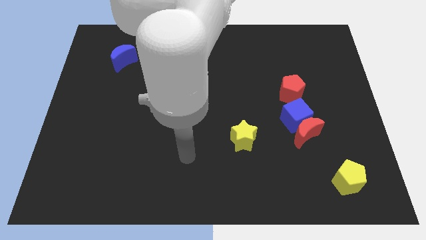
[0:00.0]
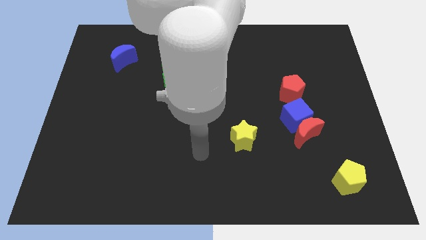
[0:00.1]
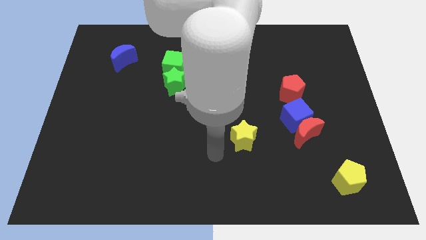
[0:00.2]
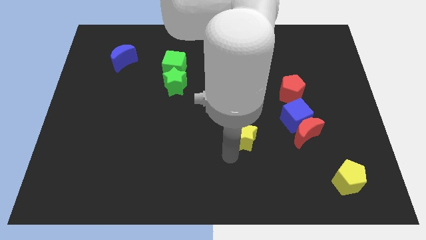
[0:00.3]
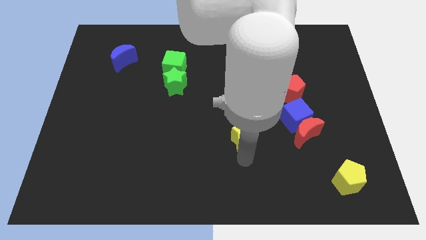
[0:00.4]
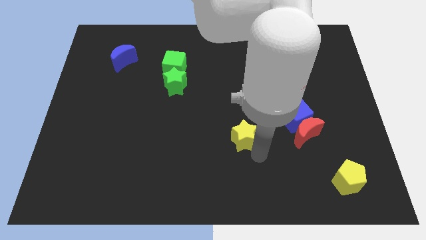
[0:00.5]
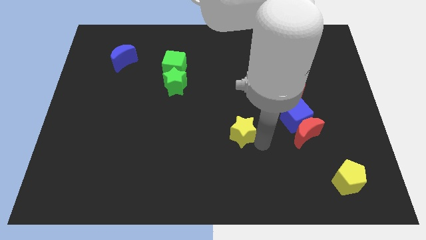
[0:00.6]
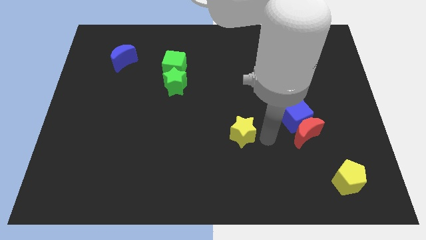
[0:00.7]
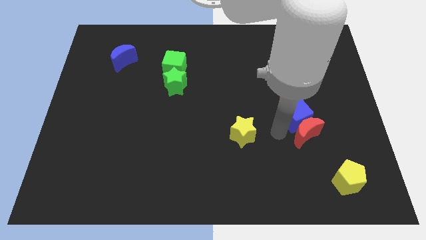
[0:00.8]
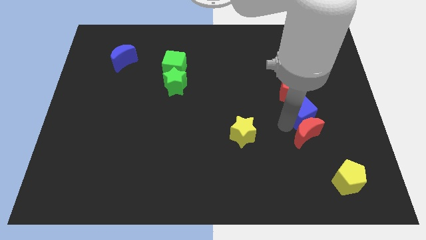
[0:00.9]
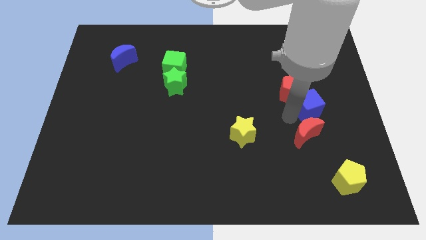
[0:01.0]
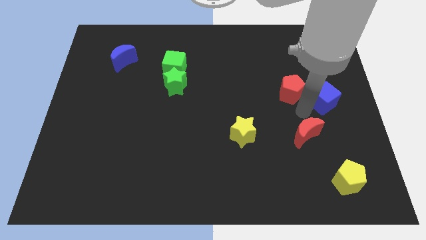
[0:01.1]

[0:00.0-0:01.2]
pull the red moon apart from the blue cube

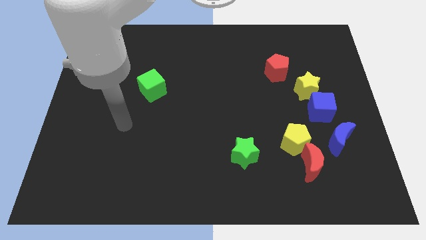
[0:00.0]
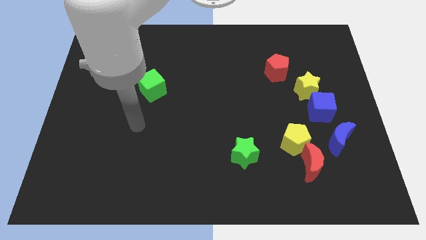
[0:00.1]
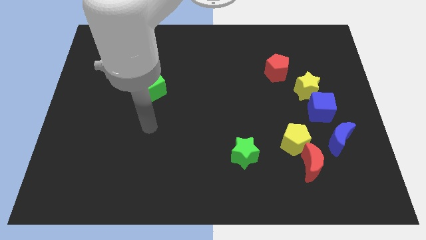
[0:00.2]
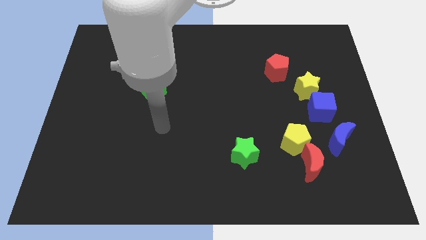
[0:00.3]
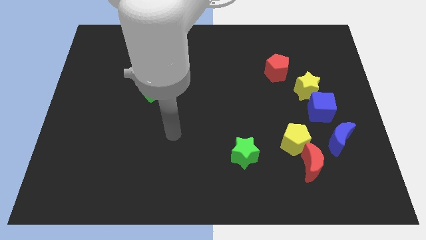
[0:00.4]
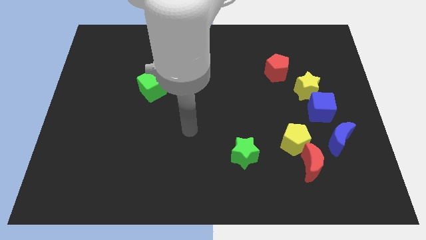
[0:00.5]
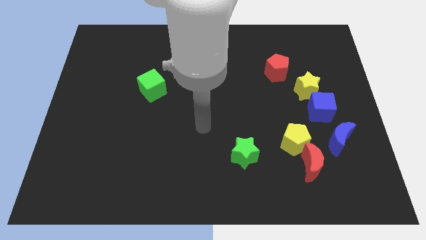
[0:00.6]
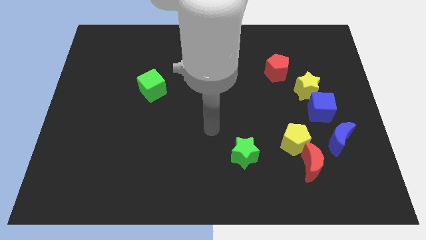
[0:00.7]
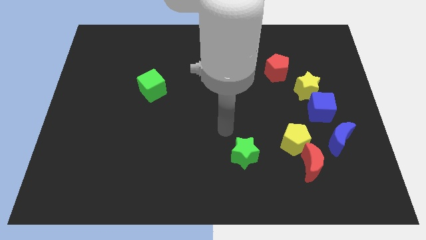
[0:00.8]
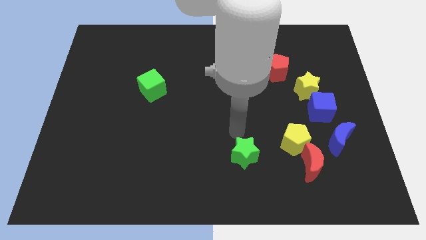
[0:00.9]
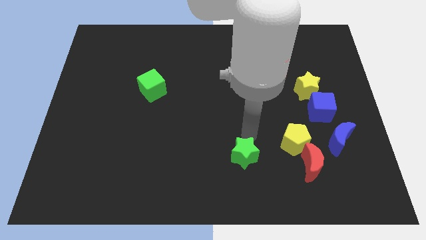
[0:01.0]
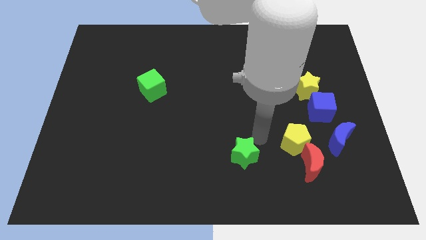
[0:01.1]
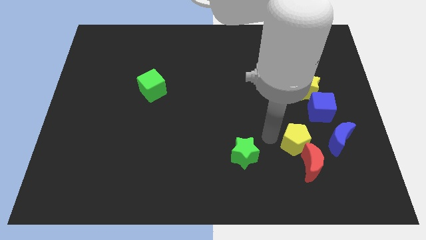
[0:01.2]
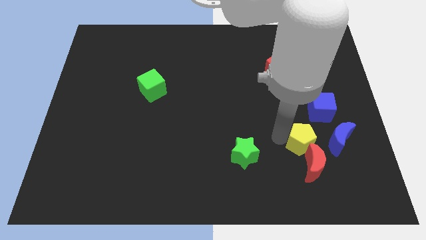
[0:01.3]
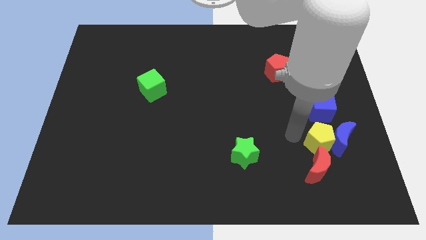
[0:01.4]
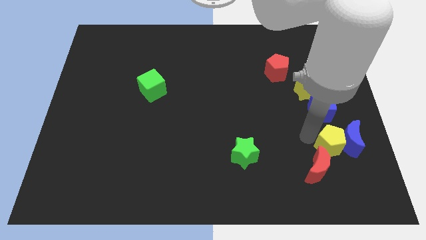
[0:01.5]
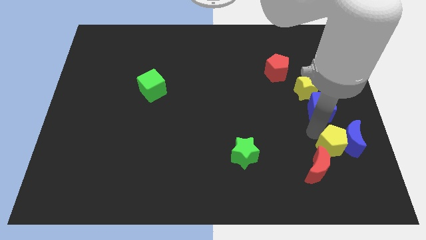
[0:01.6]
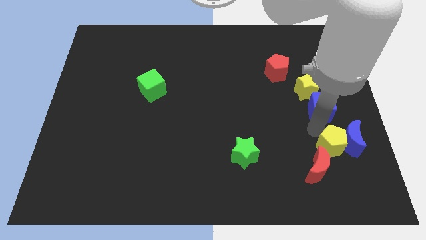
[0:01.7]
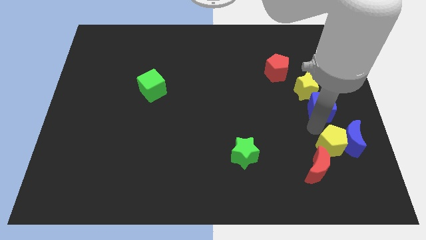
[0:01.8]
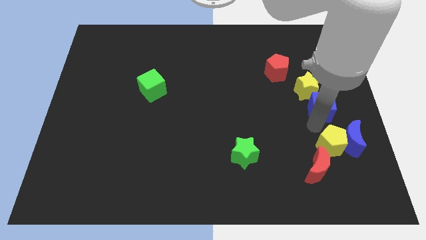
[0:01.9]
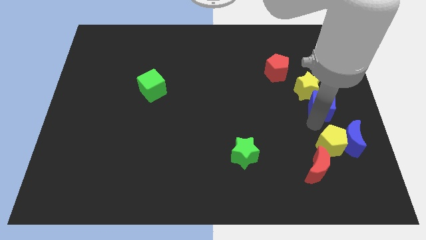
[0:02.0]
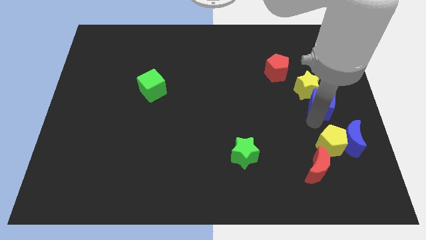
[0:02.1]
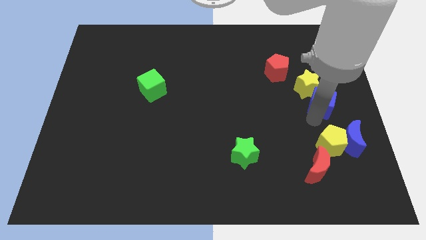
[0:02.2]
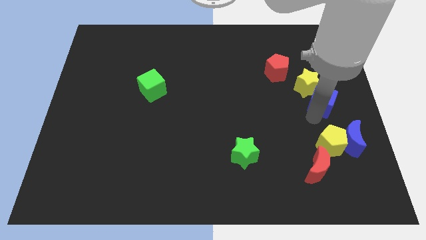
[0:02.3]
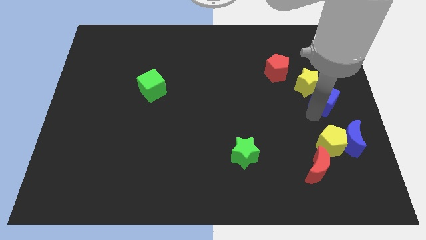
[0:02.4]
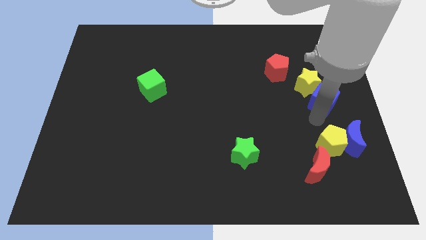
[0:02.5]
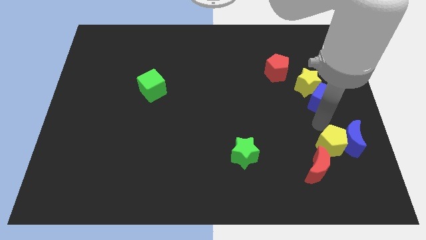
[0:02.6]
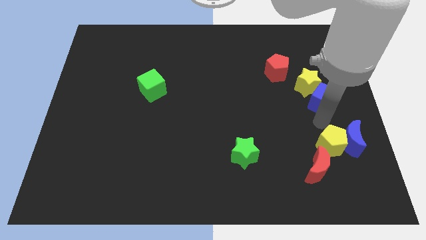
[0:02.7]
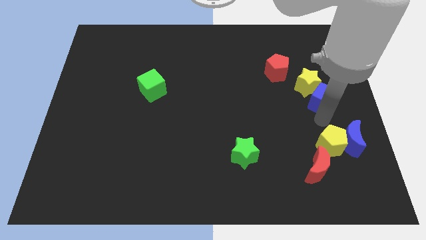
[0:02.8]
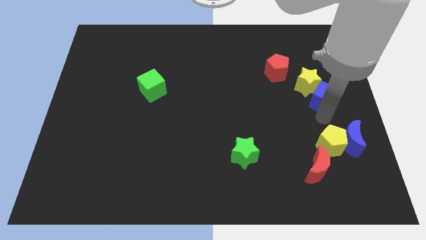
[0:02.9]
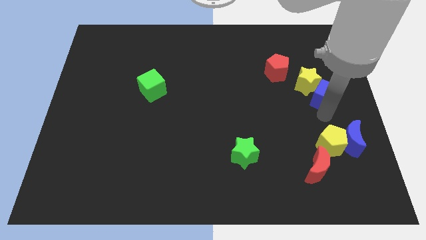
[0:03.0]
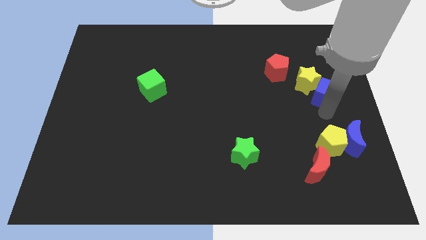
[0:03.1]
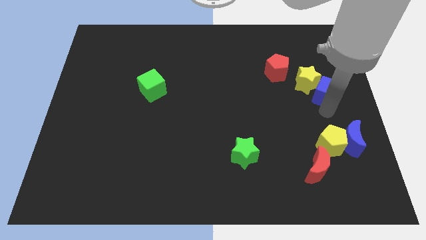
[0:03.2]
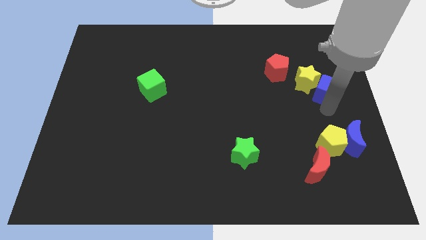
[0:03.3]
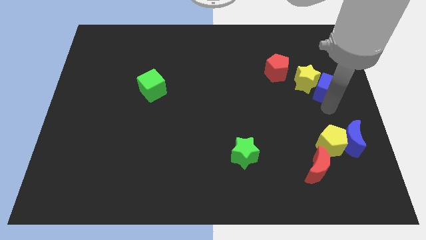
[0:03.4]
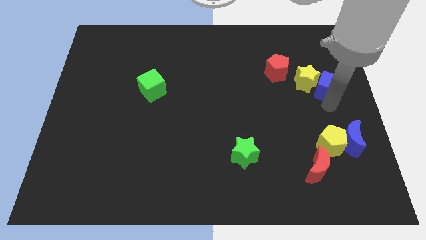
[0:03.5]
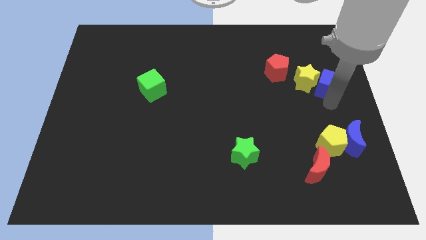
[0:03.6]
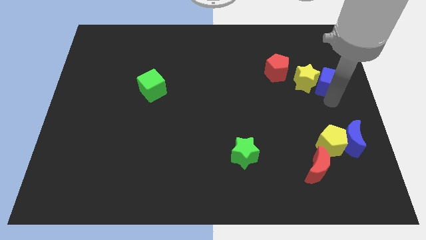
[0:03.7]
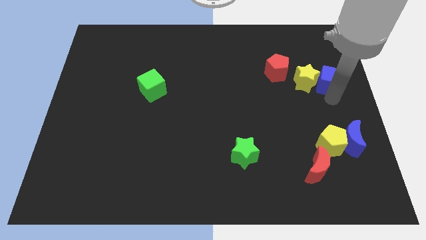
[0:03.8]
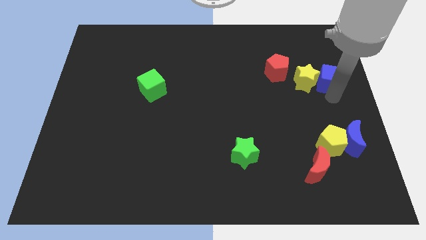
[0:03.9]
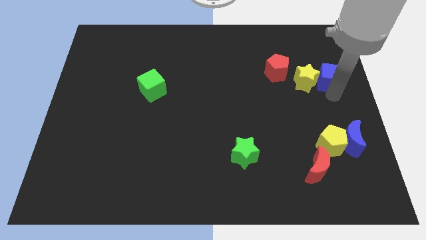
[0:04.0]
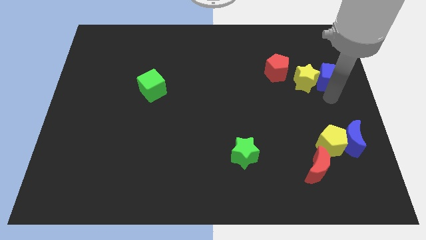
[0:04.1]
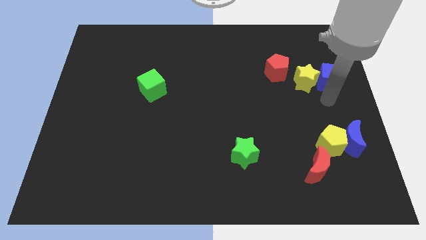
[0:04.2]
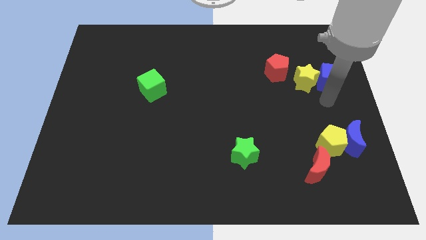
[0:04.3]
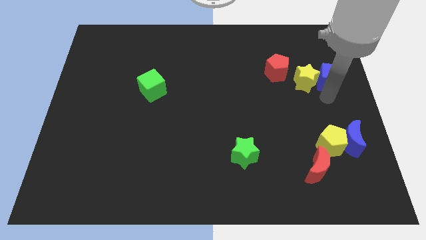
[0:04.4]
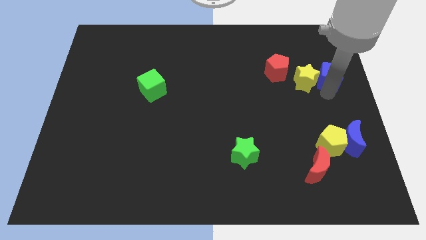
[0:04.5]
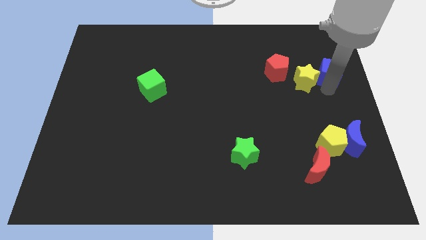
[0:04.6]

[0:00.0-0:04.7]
separate the blue cube from the yellow star and blue moon

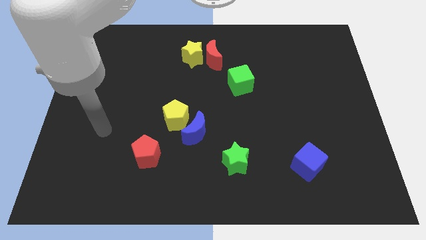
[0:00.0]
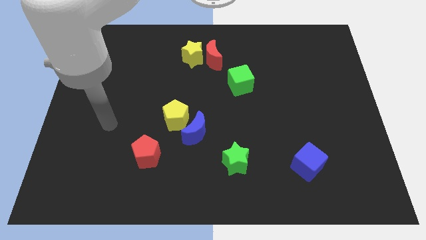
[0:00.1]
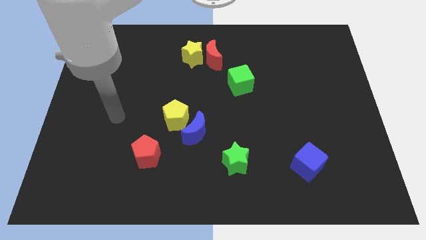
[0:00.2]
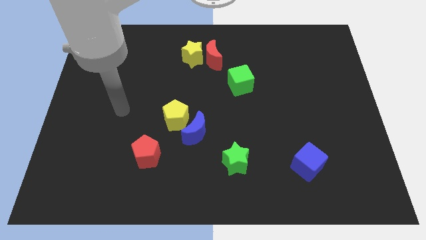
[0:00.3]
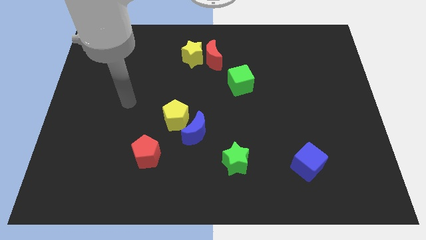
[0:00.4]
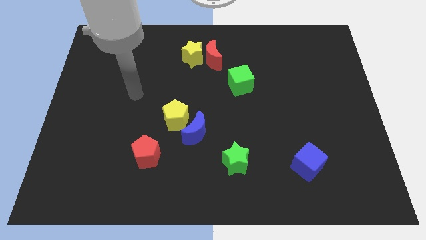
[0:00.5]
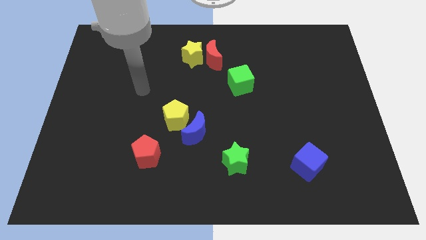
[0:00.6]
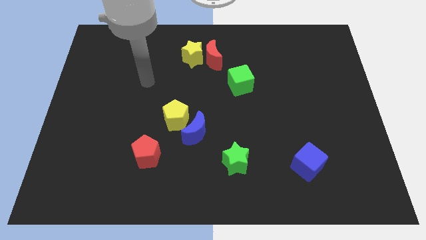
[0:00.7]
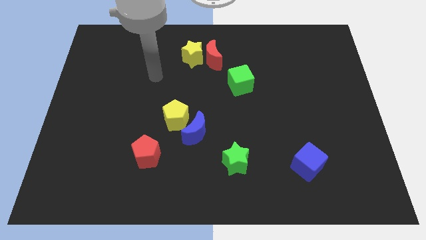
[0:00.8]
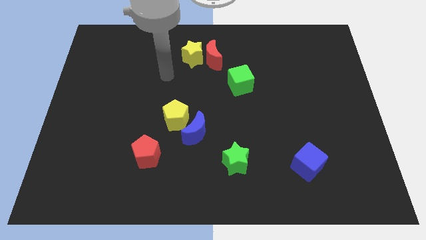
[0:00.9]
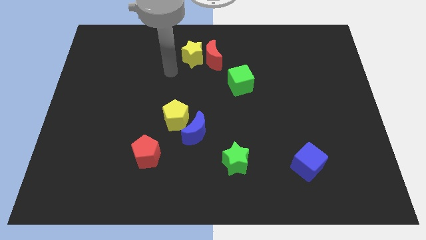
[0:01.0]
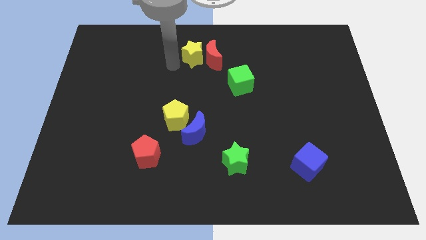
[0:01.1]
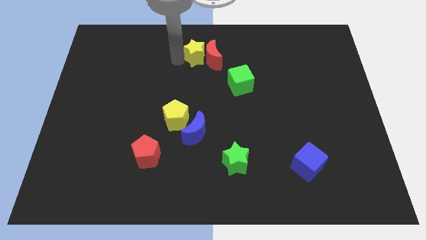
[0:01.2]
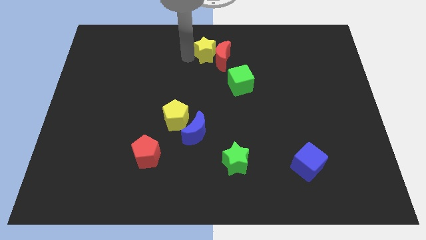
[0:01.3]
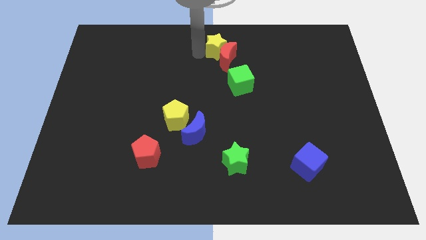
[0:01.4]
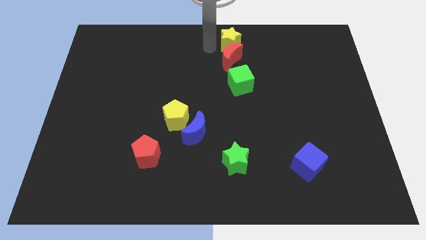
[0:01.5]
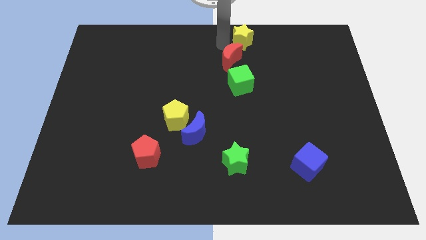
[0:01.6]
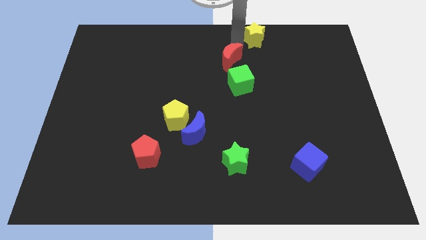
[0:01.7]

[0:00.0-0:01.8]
separate the red moon from the yellow star

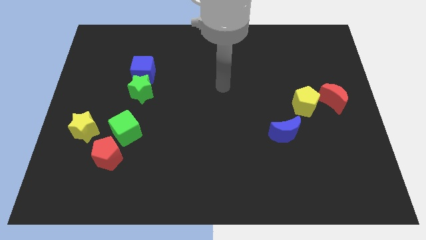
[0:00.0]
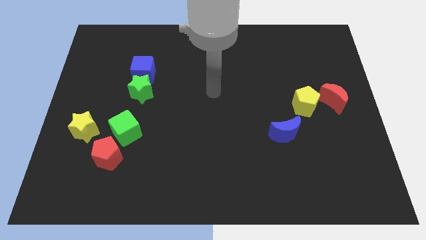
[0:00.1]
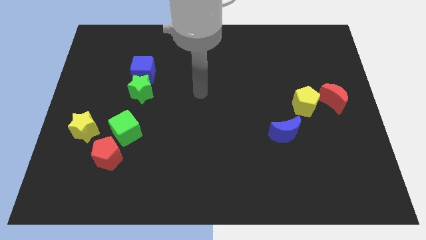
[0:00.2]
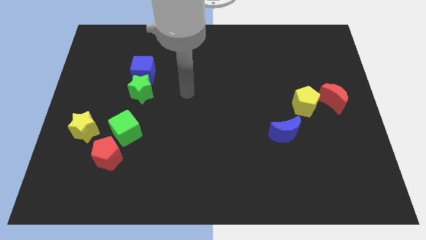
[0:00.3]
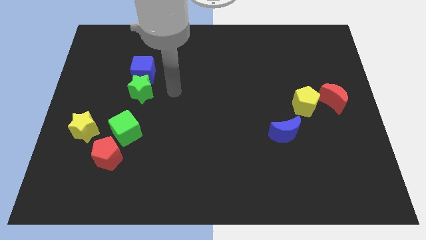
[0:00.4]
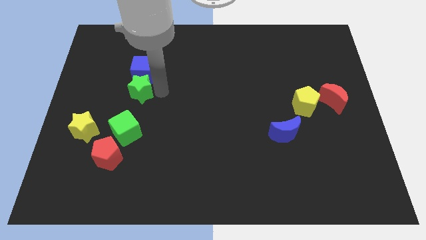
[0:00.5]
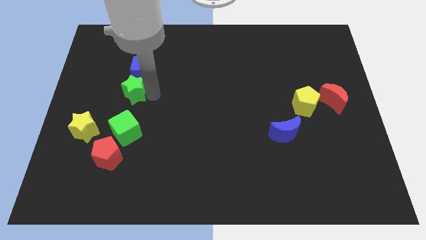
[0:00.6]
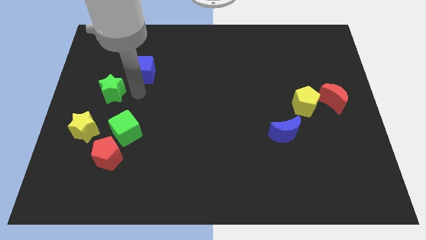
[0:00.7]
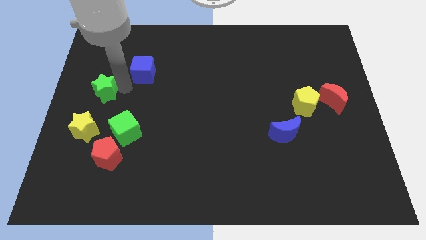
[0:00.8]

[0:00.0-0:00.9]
pull the blue cube apart from the green star

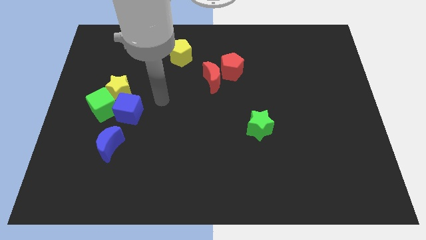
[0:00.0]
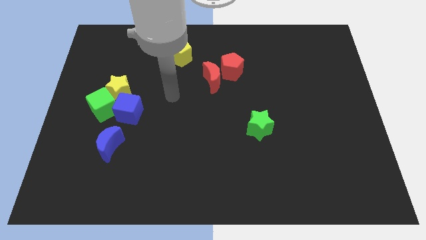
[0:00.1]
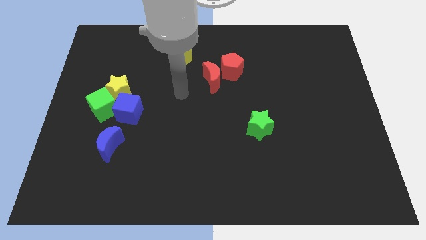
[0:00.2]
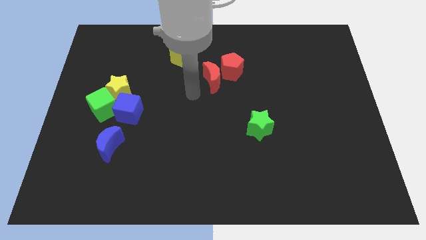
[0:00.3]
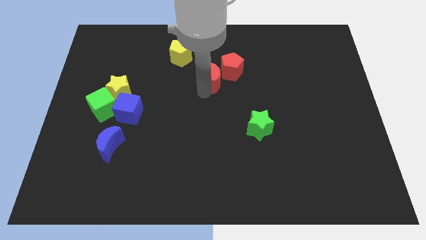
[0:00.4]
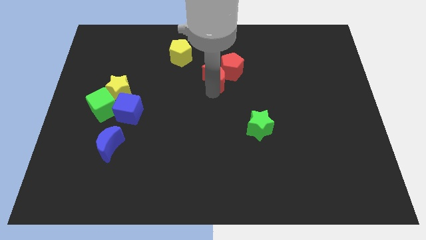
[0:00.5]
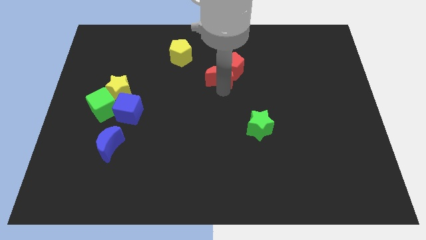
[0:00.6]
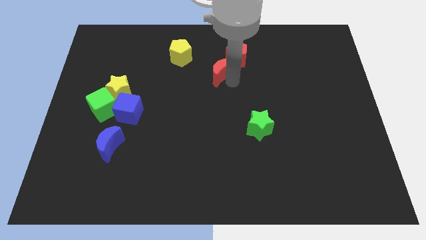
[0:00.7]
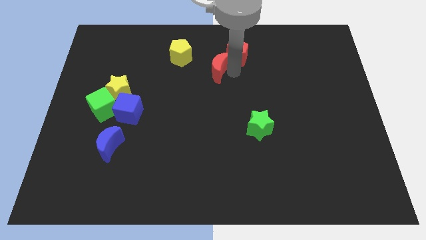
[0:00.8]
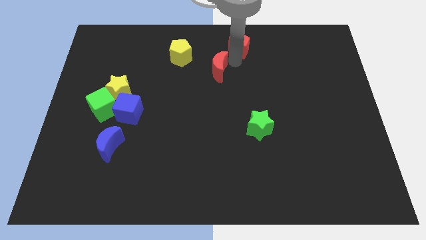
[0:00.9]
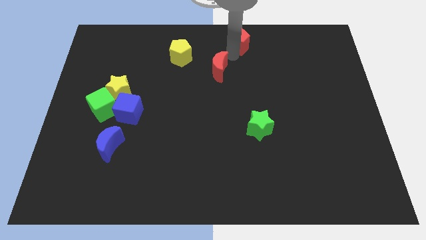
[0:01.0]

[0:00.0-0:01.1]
separate the red moon from the red pentagon
